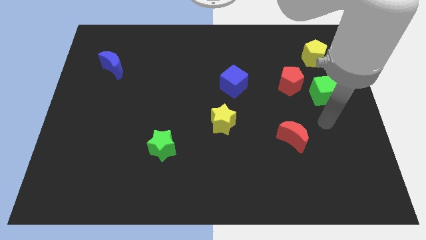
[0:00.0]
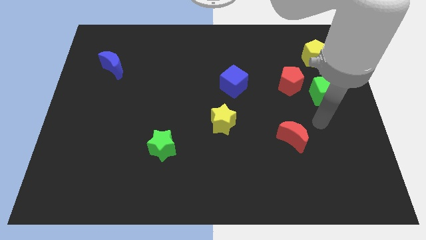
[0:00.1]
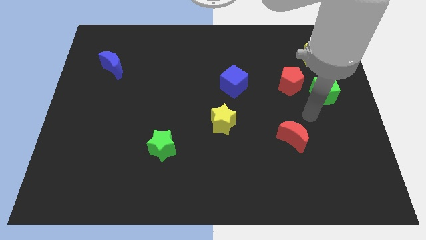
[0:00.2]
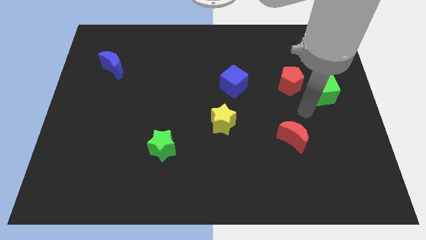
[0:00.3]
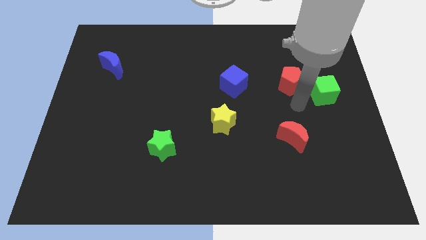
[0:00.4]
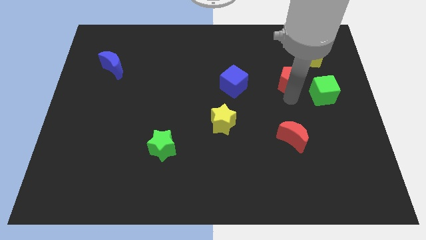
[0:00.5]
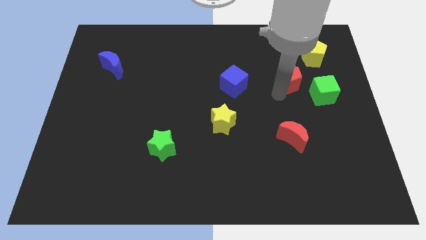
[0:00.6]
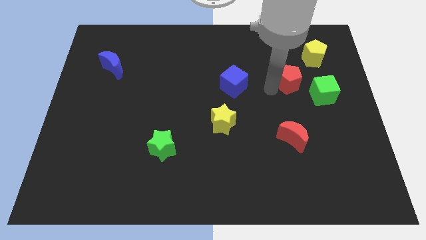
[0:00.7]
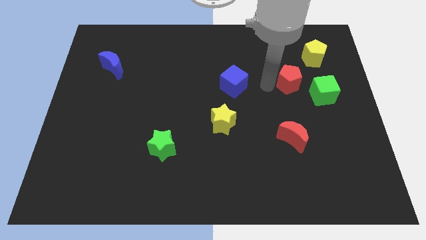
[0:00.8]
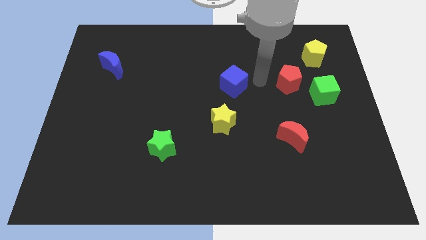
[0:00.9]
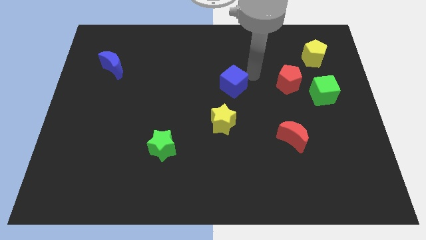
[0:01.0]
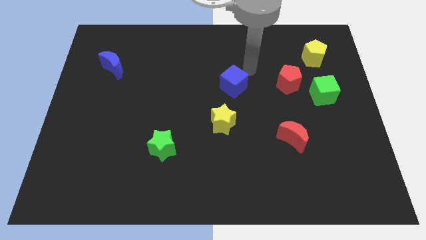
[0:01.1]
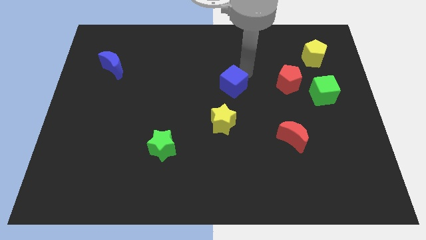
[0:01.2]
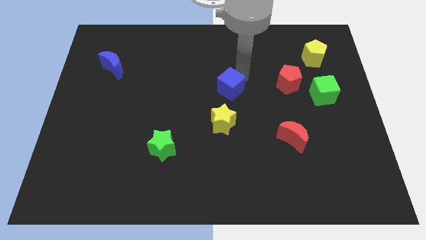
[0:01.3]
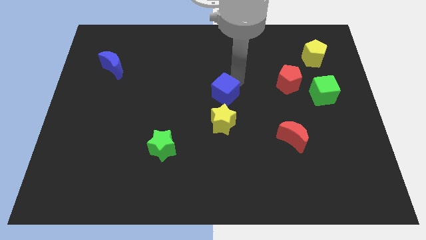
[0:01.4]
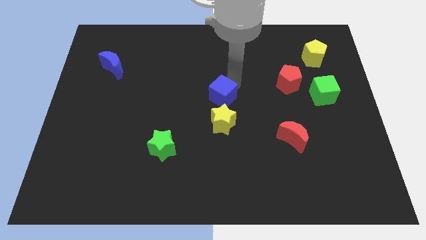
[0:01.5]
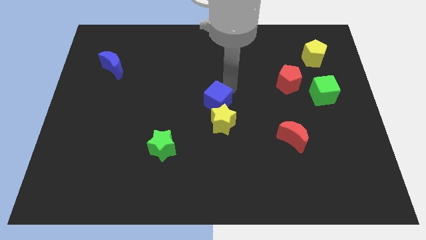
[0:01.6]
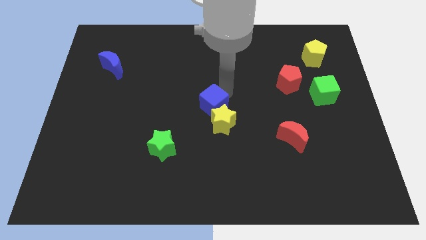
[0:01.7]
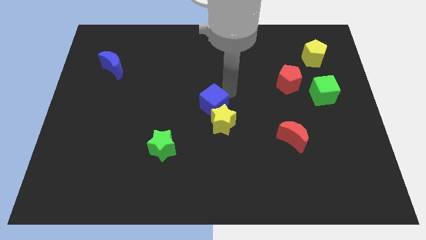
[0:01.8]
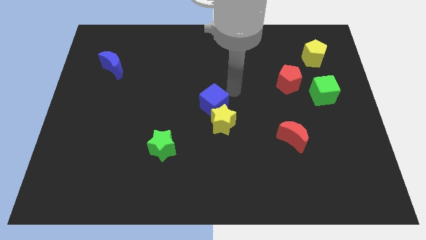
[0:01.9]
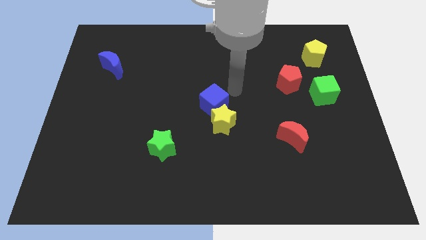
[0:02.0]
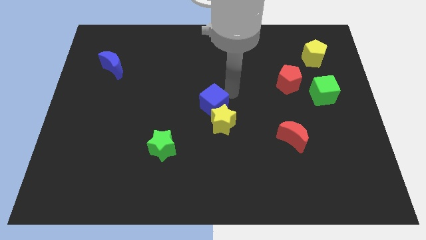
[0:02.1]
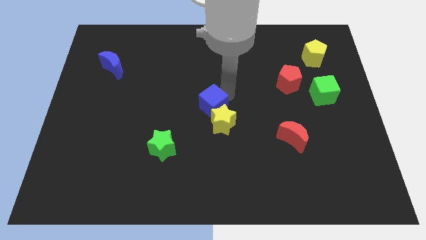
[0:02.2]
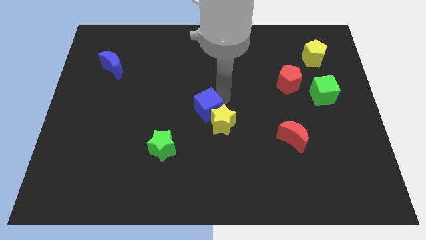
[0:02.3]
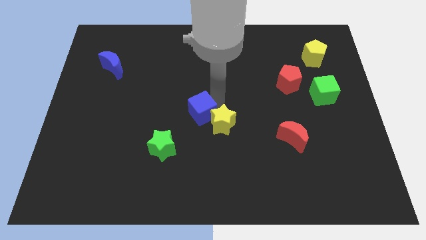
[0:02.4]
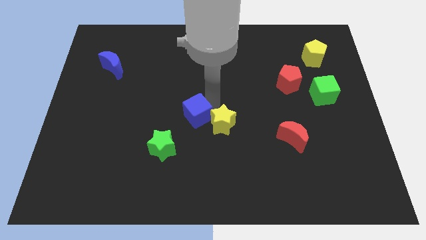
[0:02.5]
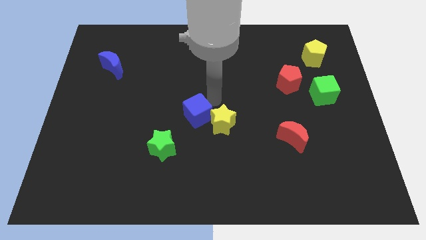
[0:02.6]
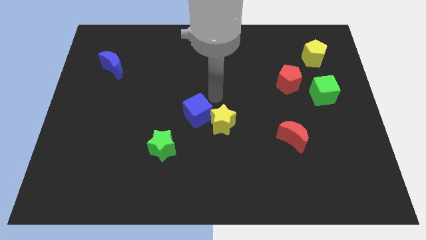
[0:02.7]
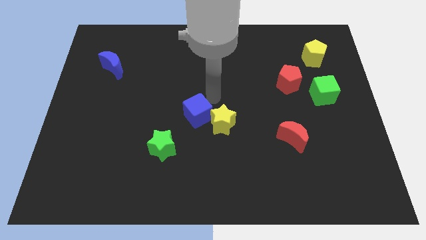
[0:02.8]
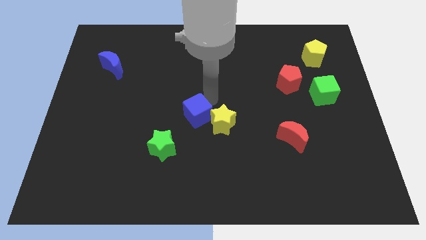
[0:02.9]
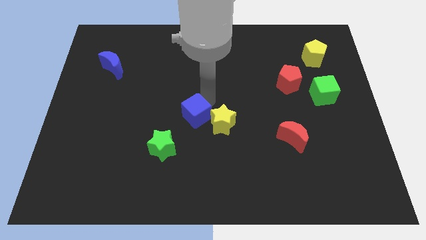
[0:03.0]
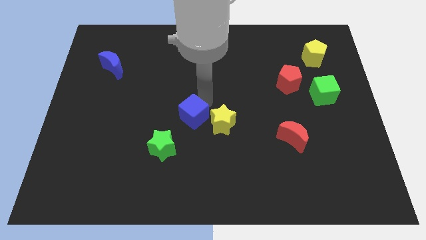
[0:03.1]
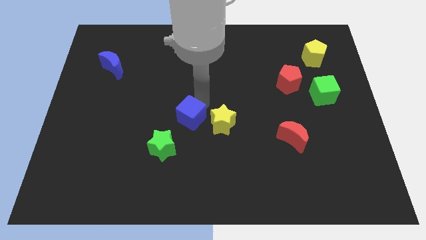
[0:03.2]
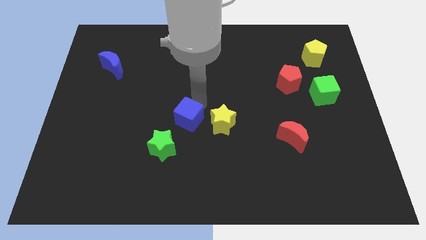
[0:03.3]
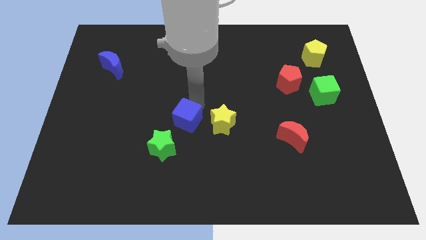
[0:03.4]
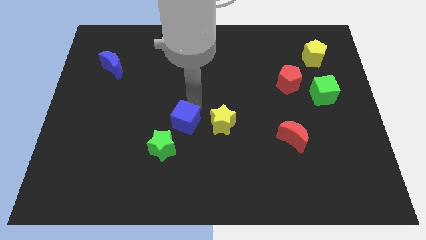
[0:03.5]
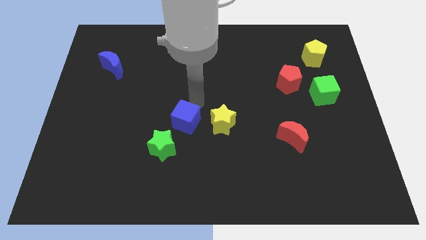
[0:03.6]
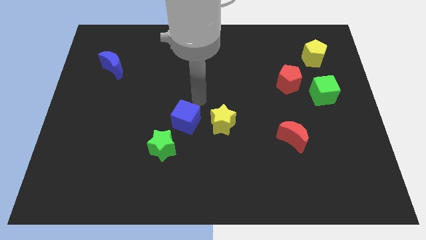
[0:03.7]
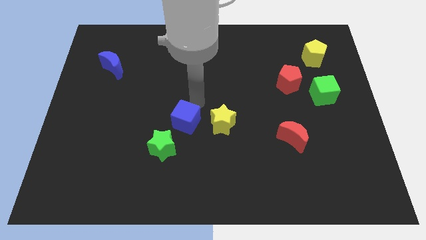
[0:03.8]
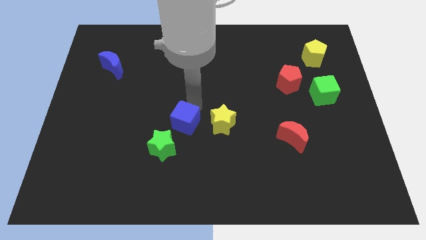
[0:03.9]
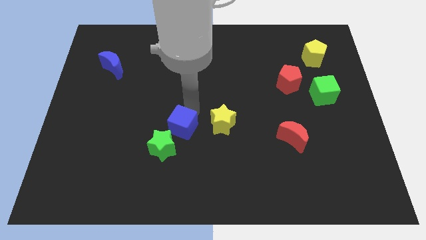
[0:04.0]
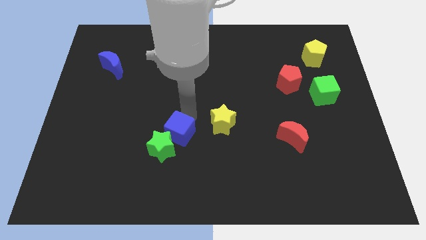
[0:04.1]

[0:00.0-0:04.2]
move the blue cube to the green star

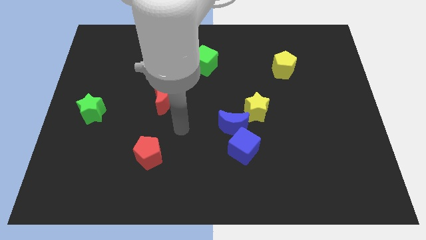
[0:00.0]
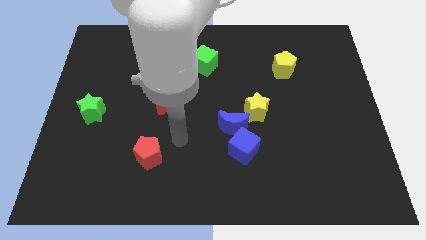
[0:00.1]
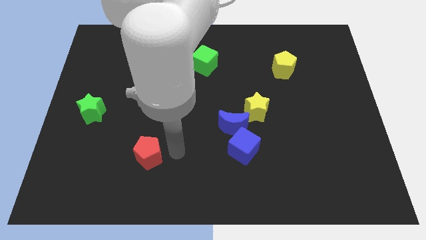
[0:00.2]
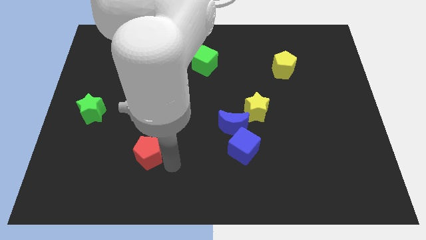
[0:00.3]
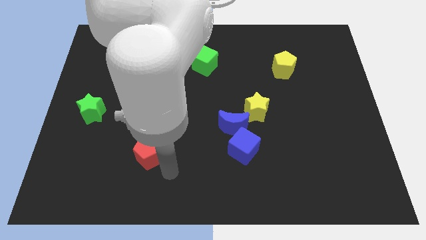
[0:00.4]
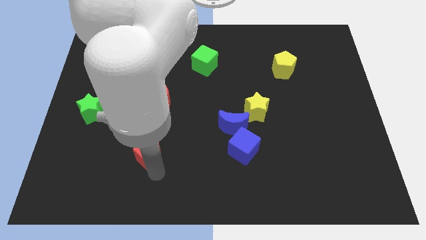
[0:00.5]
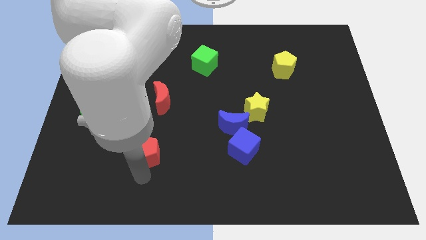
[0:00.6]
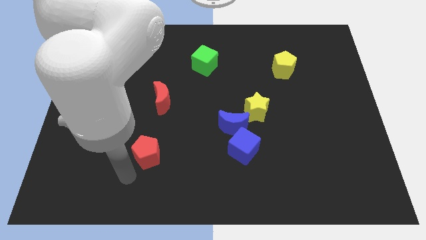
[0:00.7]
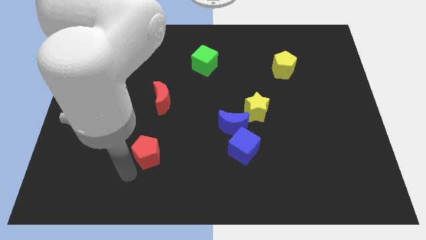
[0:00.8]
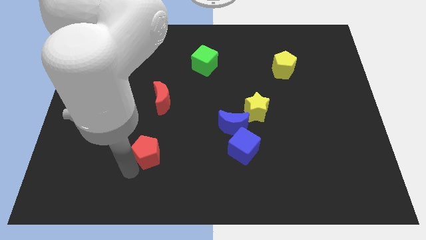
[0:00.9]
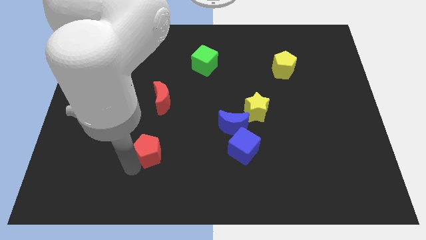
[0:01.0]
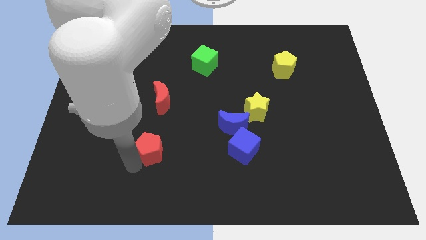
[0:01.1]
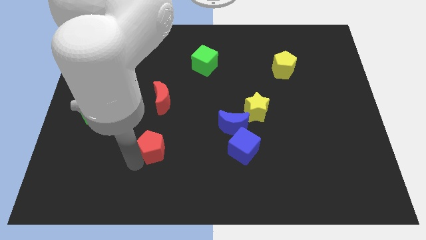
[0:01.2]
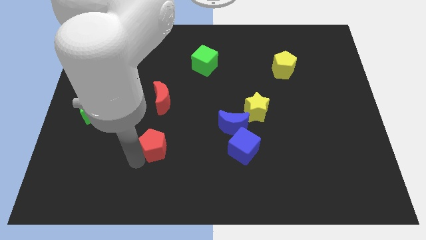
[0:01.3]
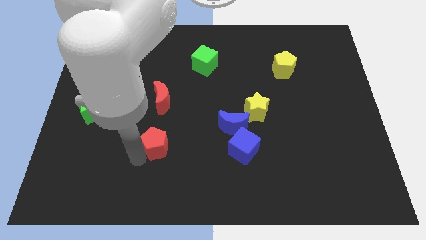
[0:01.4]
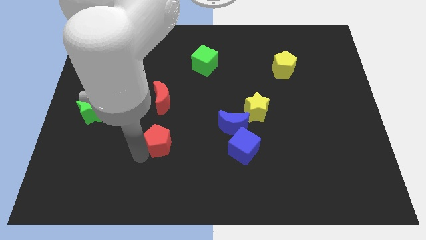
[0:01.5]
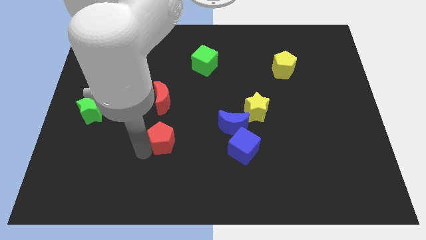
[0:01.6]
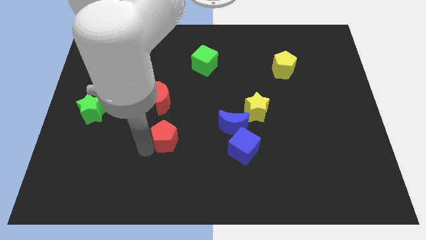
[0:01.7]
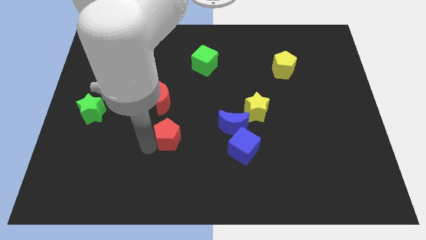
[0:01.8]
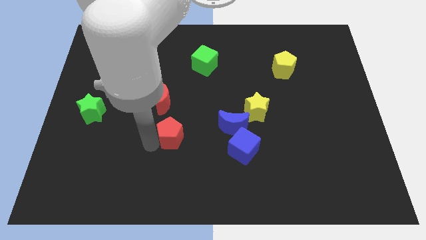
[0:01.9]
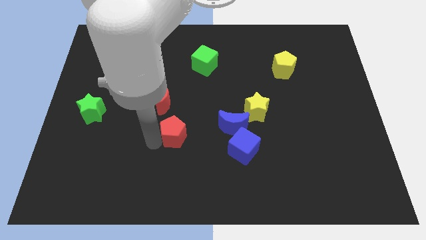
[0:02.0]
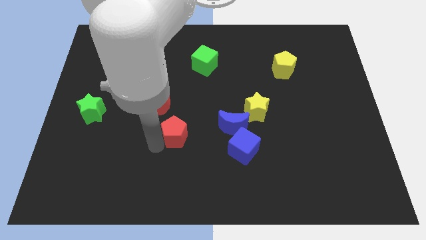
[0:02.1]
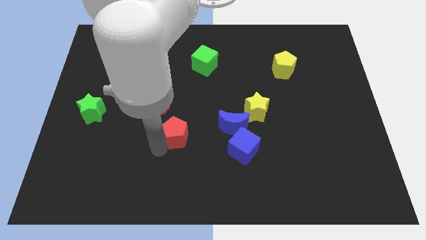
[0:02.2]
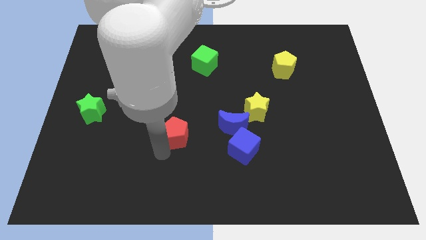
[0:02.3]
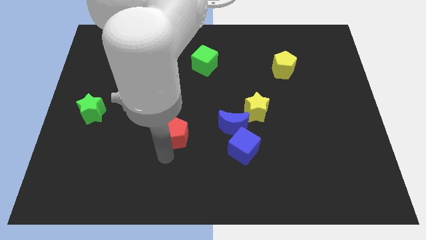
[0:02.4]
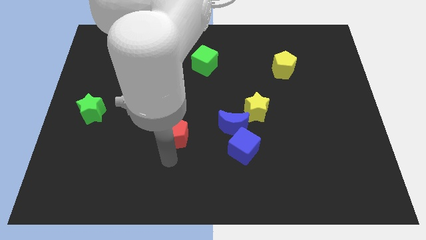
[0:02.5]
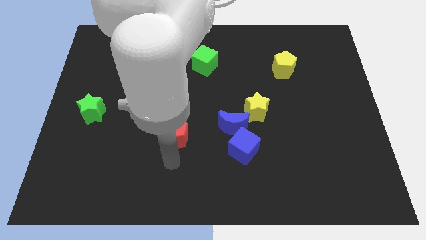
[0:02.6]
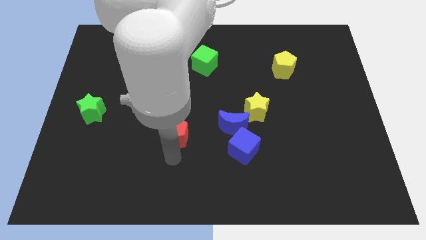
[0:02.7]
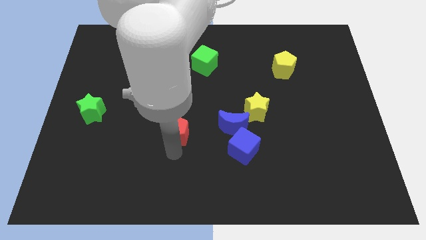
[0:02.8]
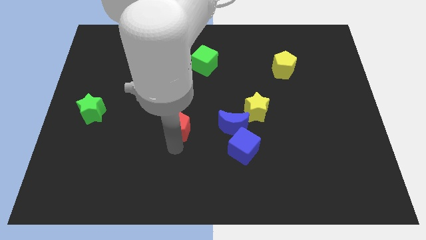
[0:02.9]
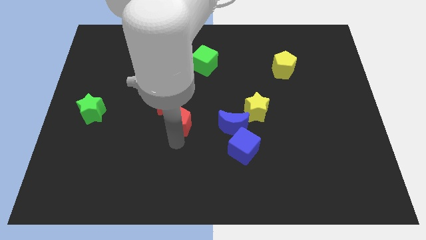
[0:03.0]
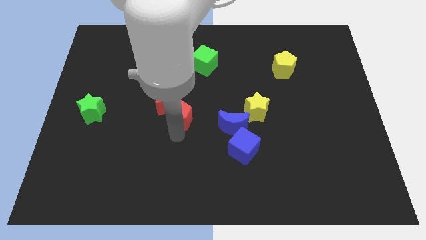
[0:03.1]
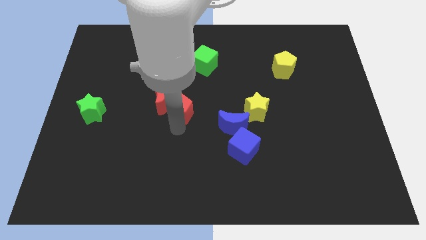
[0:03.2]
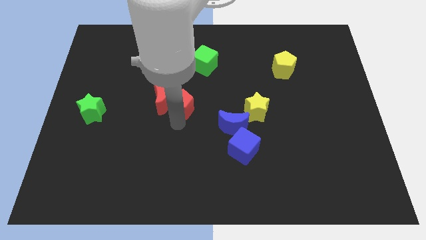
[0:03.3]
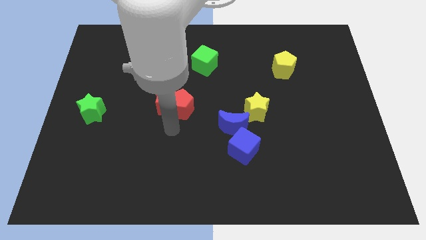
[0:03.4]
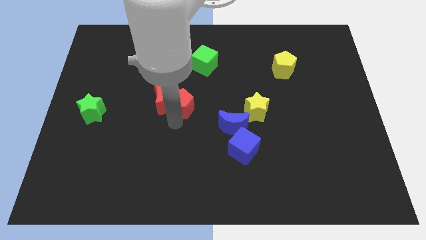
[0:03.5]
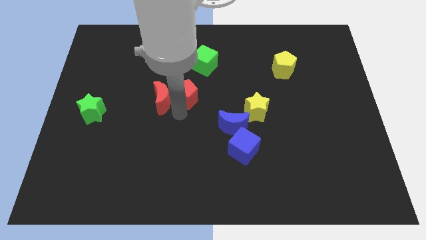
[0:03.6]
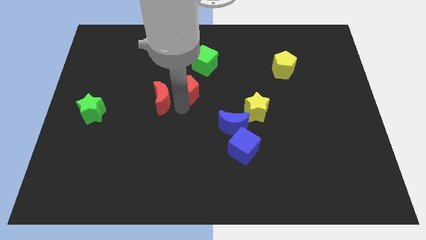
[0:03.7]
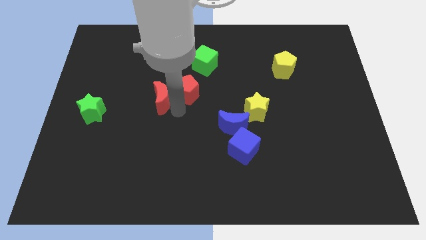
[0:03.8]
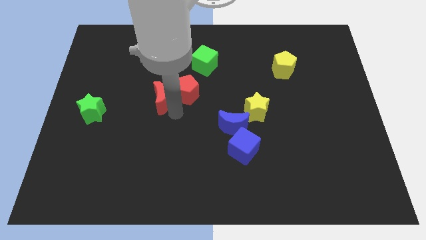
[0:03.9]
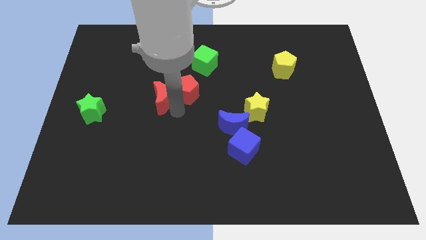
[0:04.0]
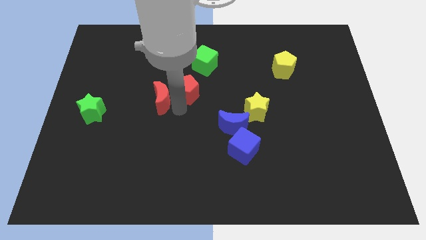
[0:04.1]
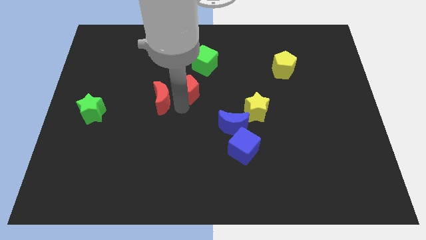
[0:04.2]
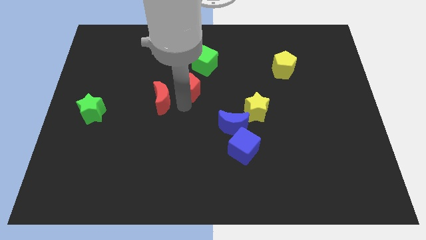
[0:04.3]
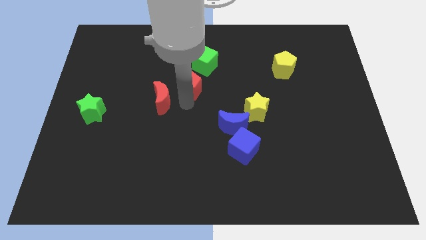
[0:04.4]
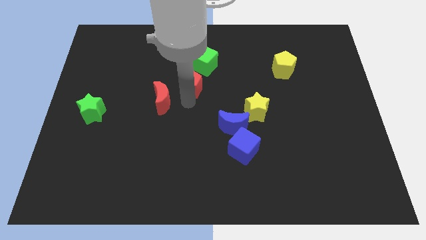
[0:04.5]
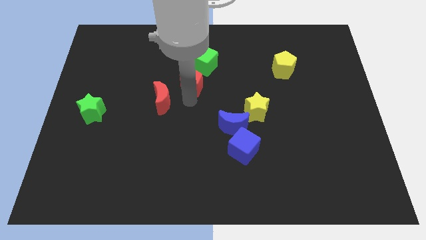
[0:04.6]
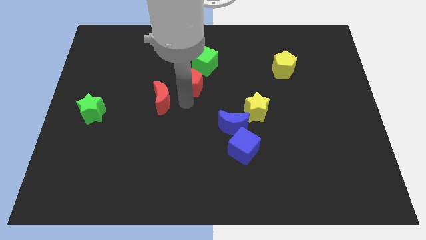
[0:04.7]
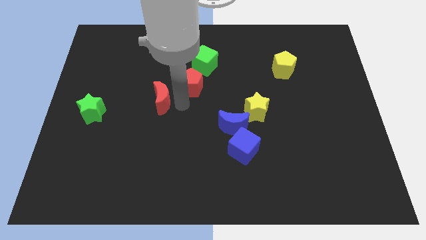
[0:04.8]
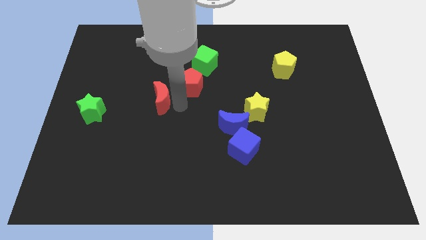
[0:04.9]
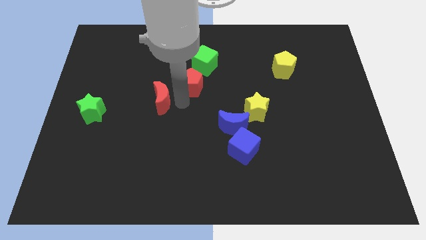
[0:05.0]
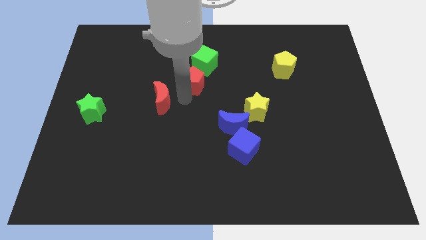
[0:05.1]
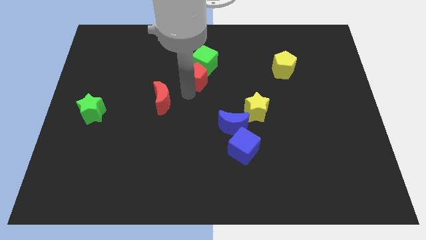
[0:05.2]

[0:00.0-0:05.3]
slide the red pentagon close to the green cube
